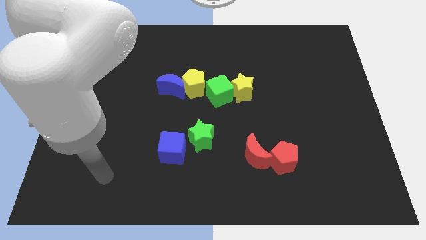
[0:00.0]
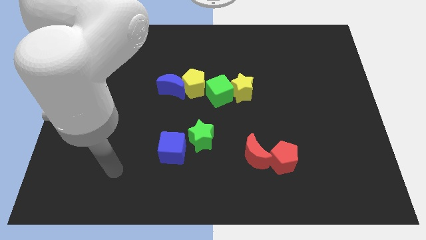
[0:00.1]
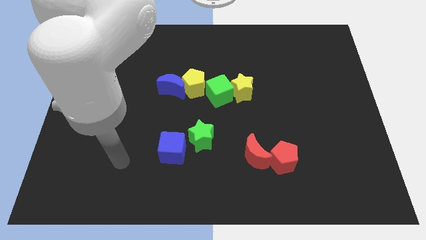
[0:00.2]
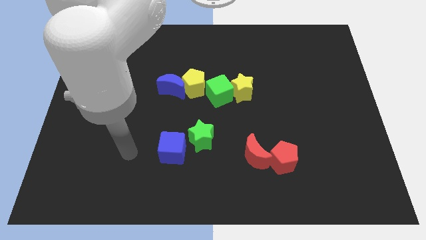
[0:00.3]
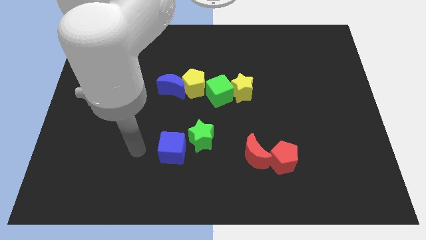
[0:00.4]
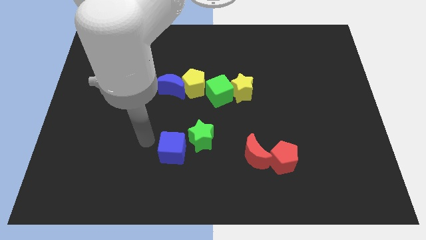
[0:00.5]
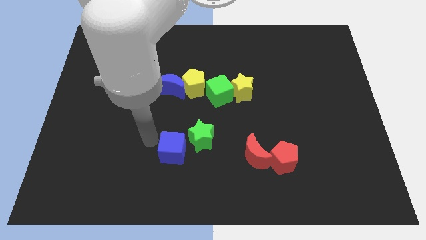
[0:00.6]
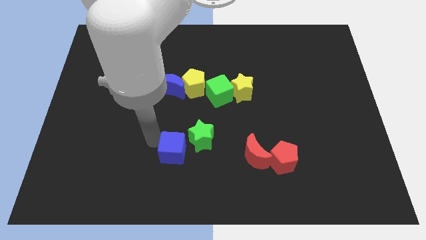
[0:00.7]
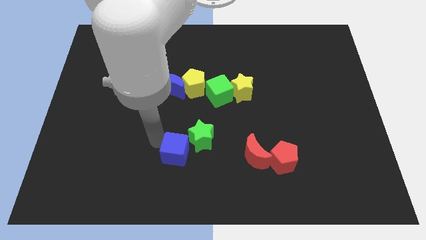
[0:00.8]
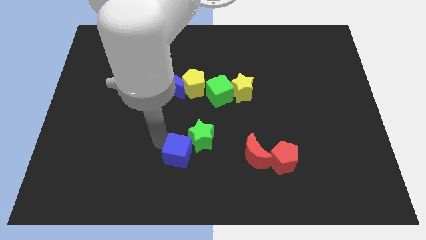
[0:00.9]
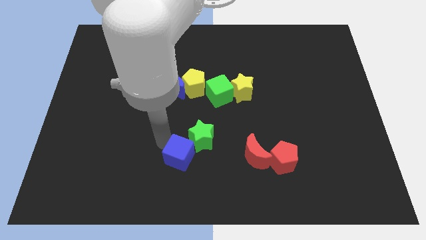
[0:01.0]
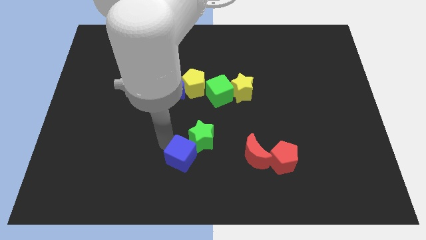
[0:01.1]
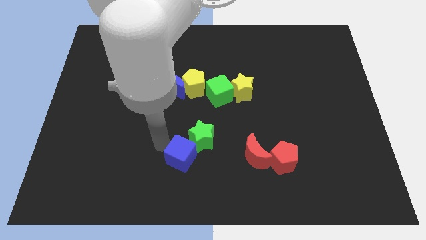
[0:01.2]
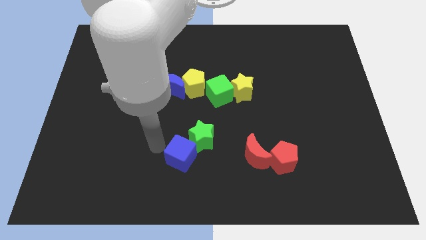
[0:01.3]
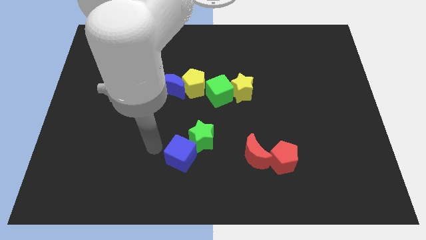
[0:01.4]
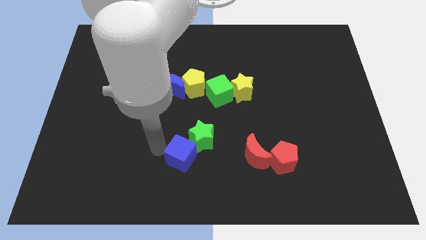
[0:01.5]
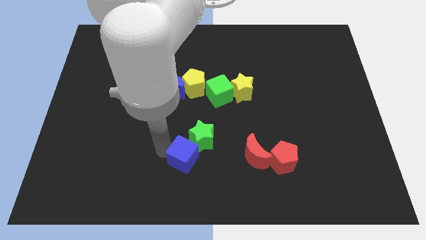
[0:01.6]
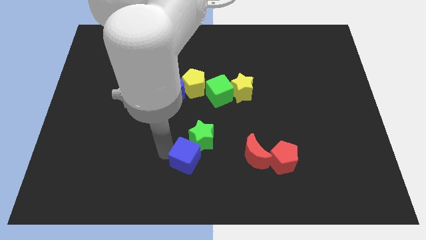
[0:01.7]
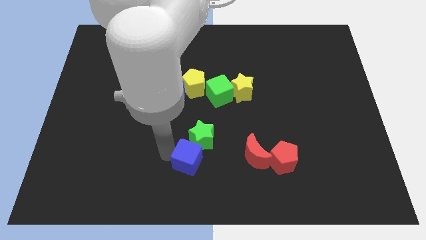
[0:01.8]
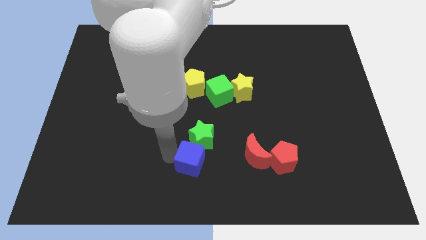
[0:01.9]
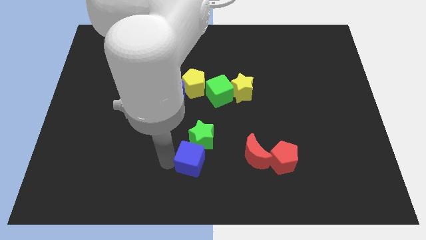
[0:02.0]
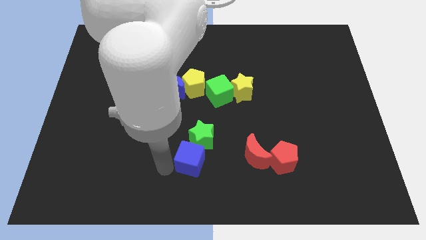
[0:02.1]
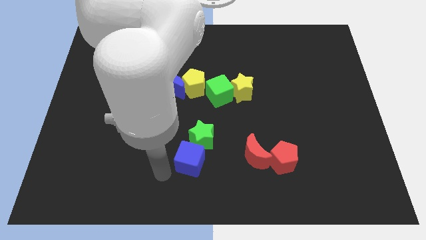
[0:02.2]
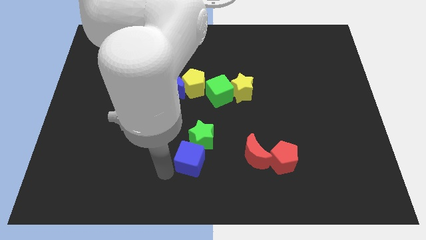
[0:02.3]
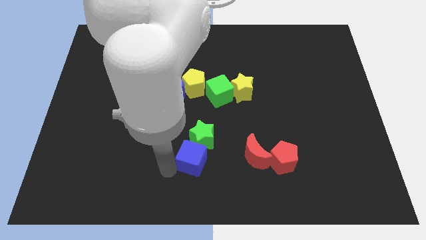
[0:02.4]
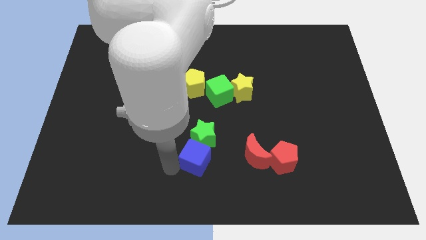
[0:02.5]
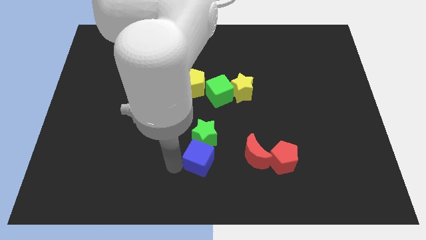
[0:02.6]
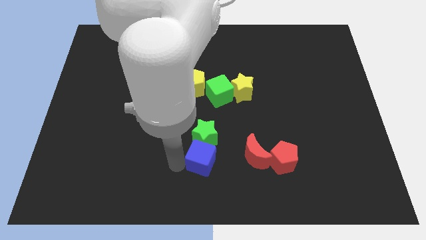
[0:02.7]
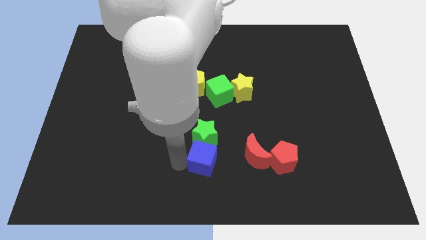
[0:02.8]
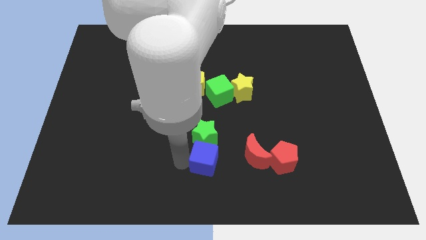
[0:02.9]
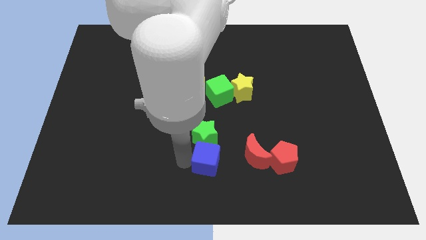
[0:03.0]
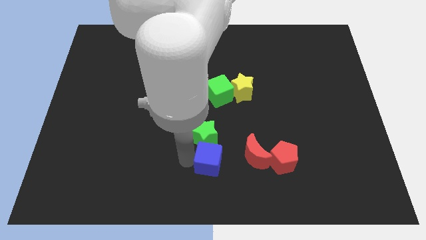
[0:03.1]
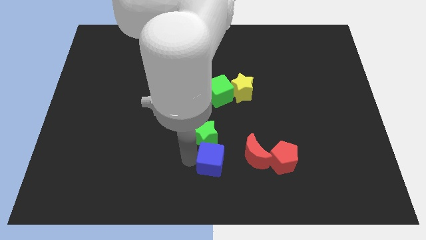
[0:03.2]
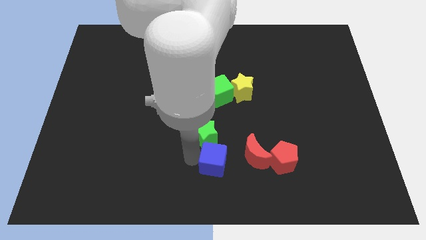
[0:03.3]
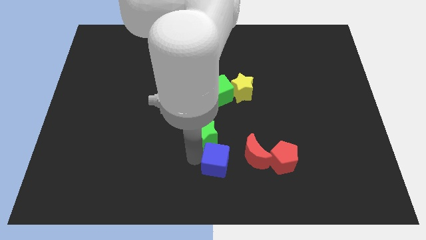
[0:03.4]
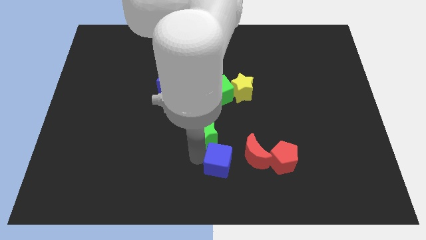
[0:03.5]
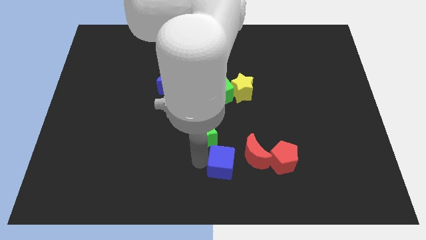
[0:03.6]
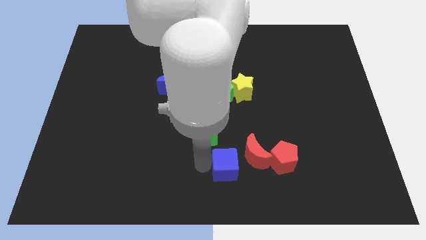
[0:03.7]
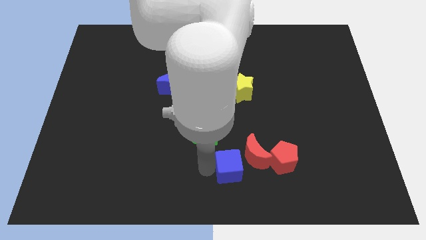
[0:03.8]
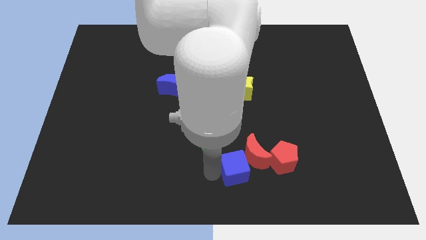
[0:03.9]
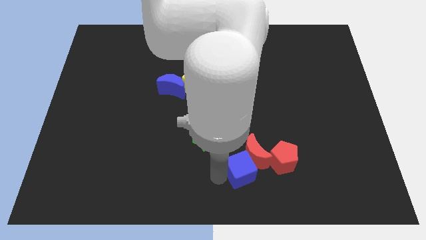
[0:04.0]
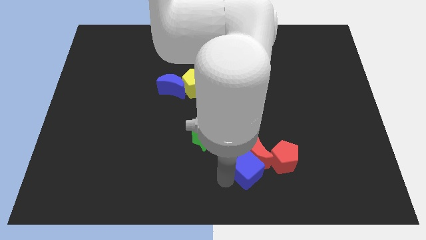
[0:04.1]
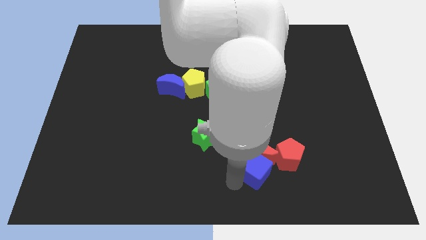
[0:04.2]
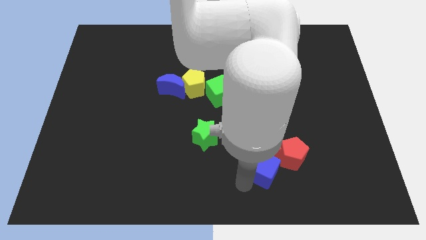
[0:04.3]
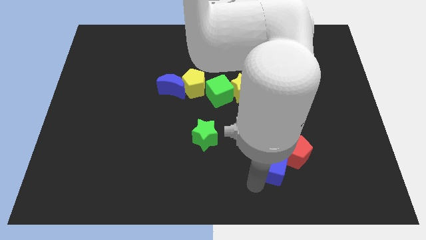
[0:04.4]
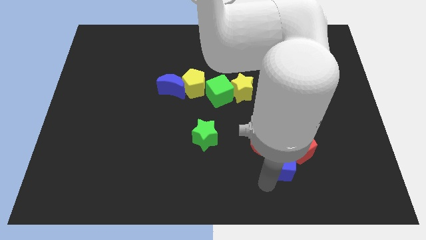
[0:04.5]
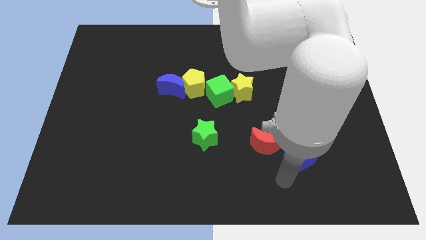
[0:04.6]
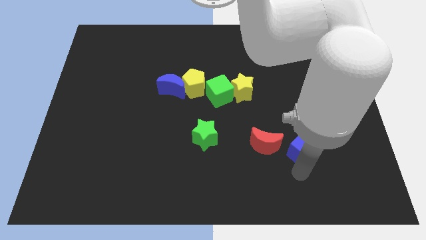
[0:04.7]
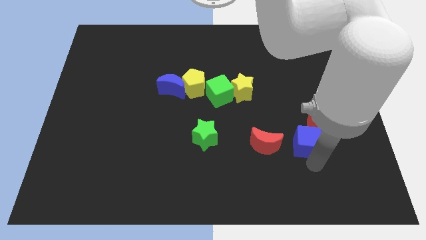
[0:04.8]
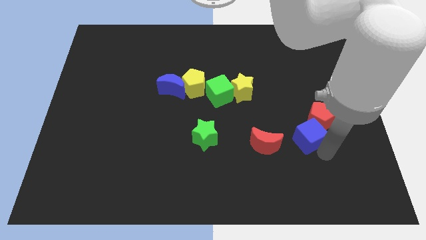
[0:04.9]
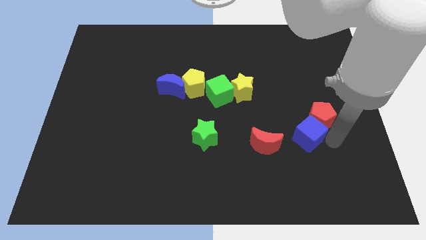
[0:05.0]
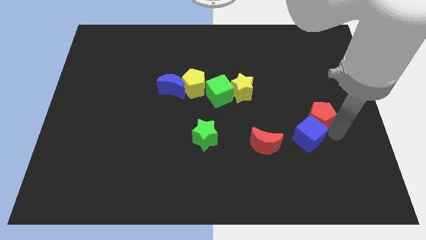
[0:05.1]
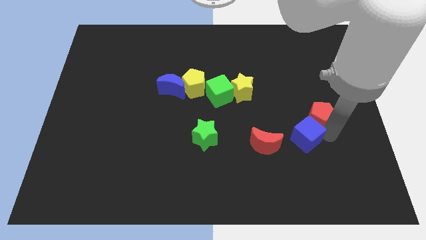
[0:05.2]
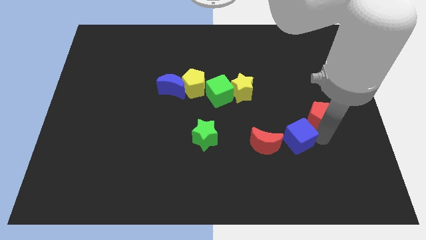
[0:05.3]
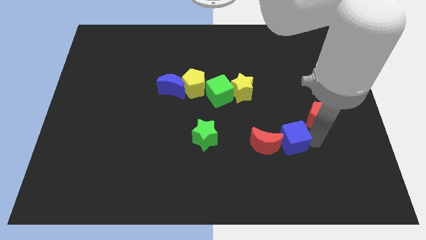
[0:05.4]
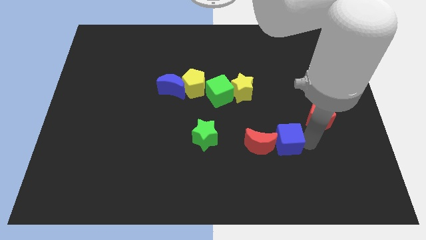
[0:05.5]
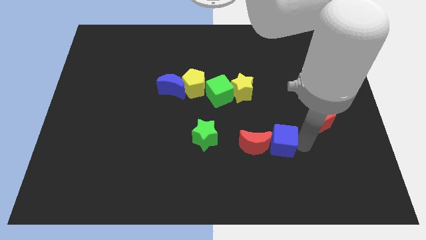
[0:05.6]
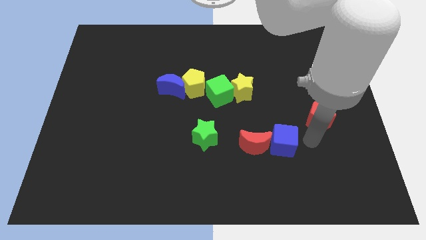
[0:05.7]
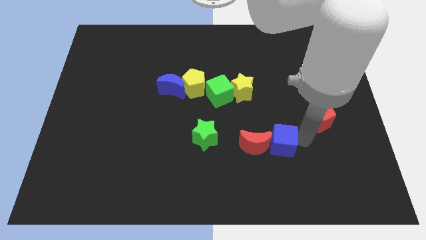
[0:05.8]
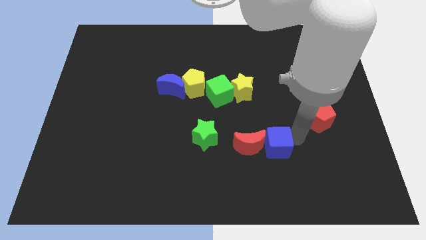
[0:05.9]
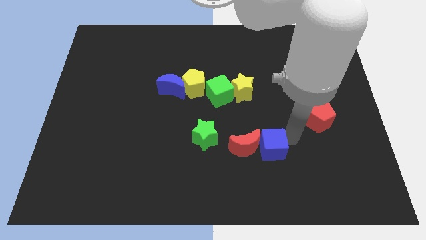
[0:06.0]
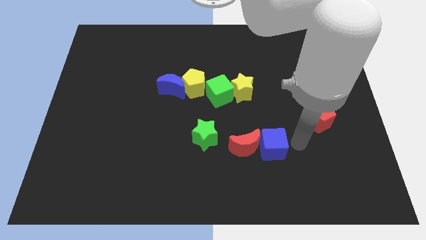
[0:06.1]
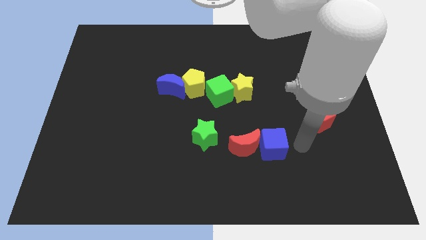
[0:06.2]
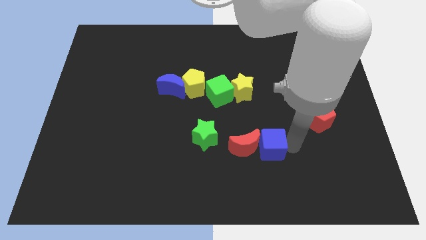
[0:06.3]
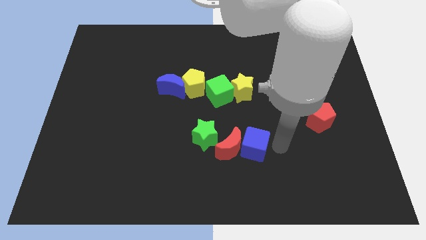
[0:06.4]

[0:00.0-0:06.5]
move the blue cube below the yellow star

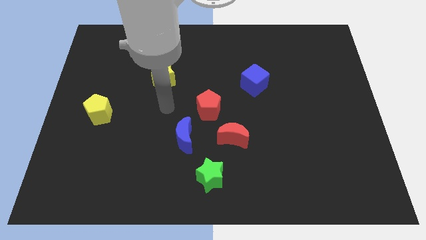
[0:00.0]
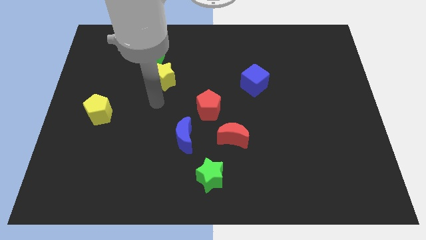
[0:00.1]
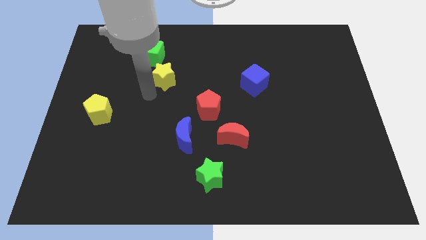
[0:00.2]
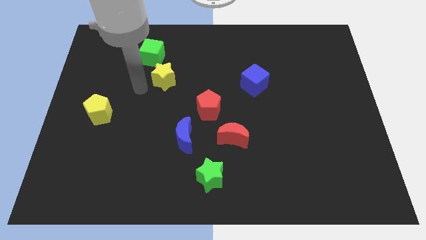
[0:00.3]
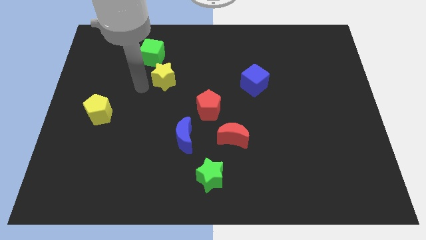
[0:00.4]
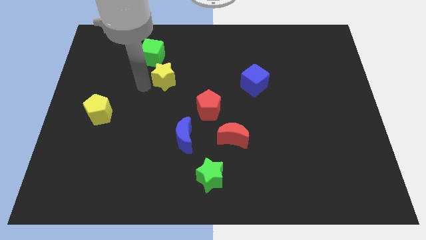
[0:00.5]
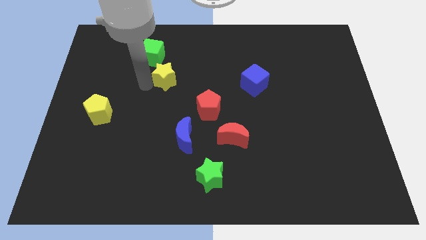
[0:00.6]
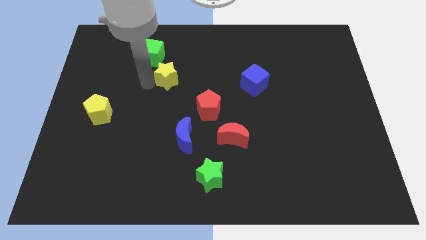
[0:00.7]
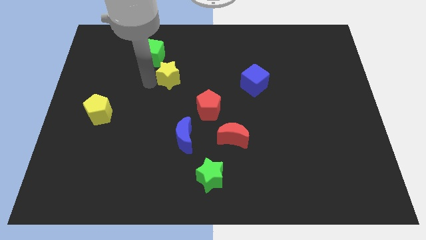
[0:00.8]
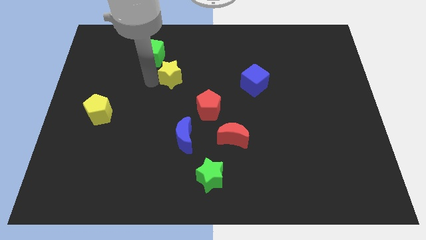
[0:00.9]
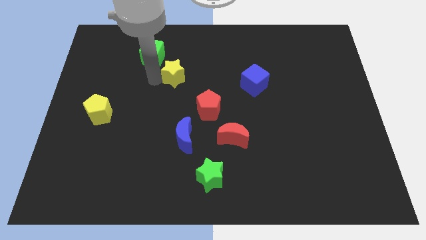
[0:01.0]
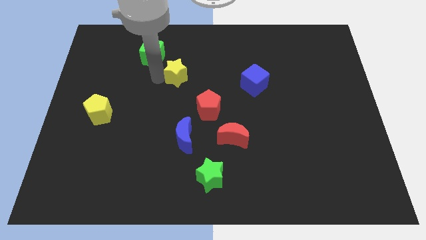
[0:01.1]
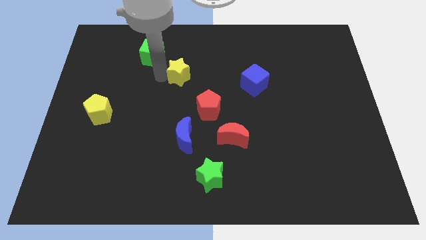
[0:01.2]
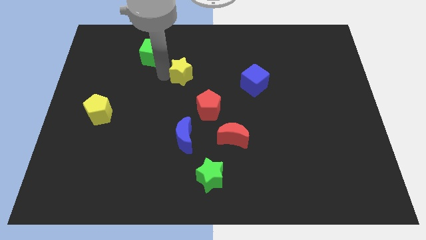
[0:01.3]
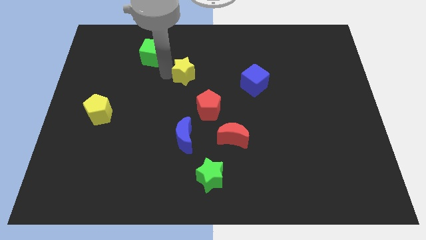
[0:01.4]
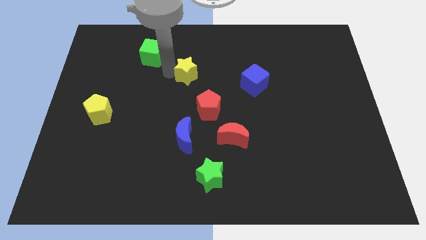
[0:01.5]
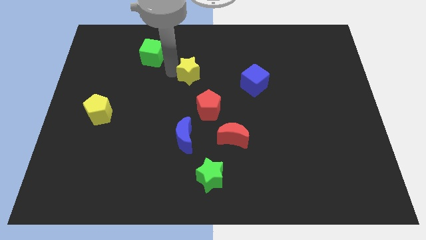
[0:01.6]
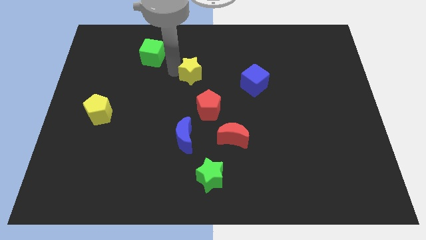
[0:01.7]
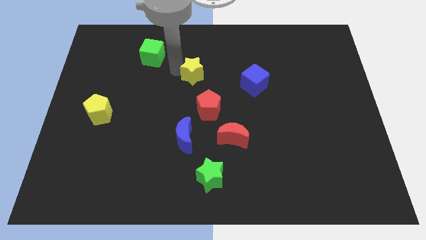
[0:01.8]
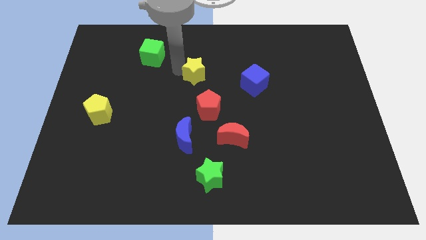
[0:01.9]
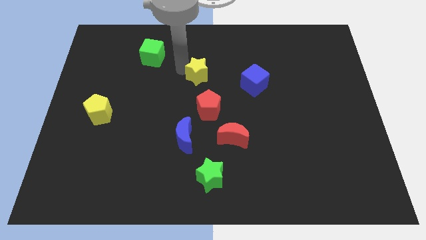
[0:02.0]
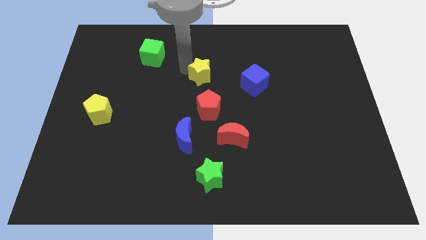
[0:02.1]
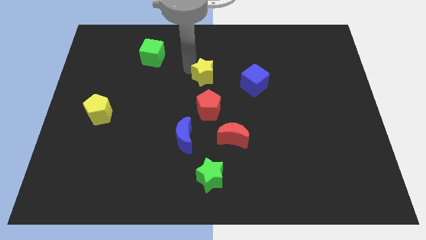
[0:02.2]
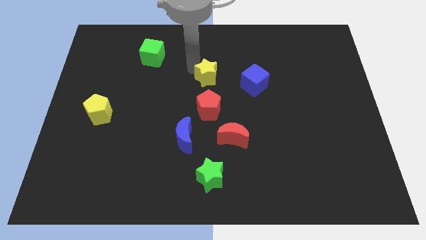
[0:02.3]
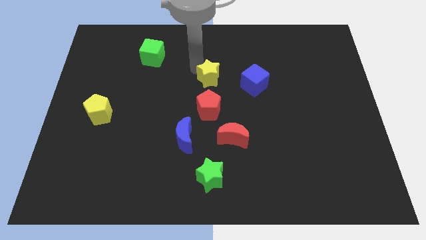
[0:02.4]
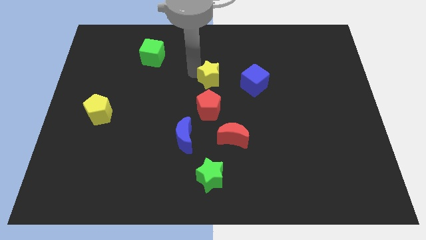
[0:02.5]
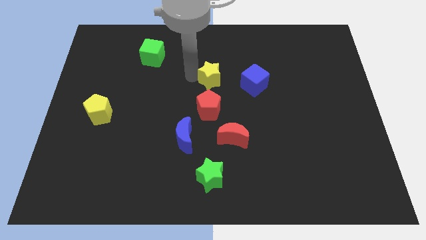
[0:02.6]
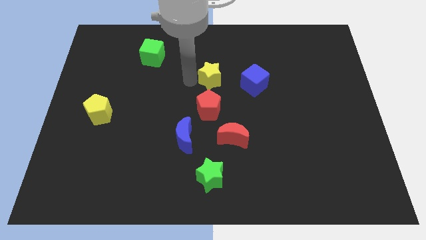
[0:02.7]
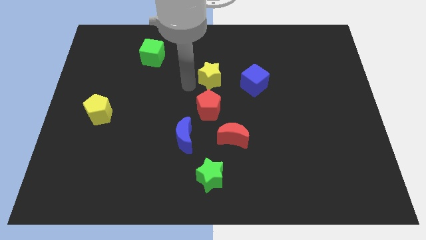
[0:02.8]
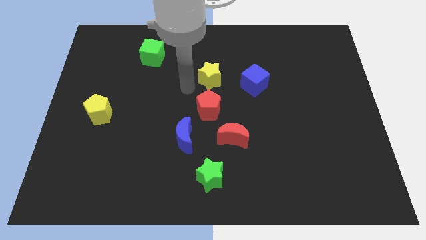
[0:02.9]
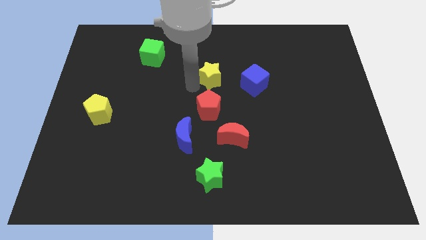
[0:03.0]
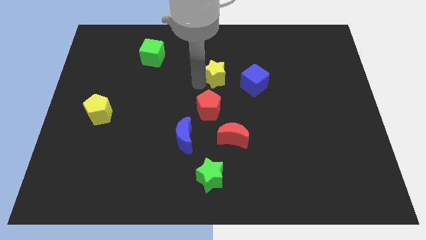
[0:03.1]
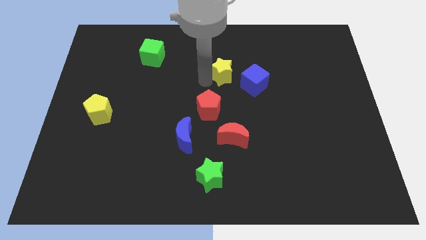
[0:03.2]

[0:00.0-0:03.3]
put the yellow star to the top left of the blue cube
